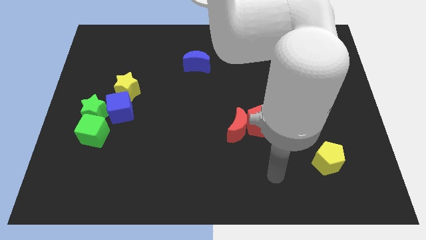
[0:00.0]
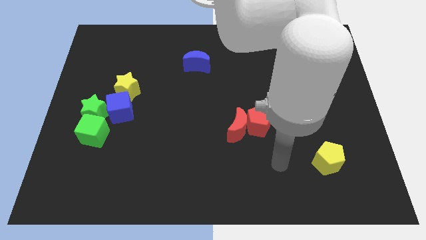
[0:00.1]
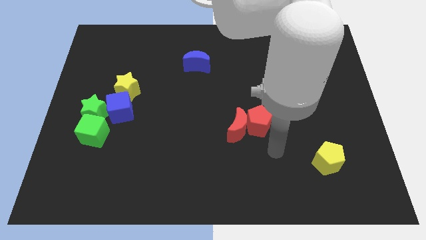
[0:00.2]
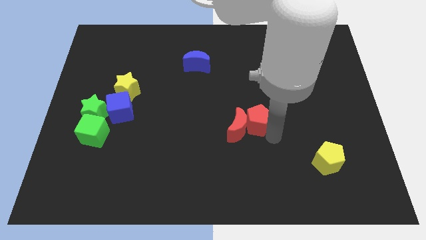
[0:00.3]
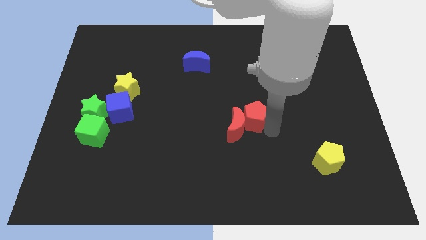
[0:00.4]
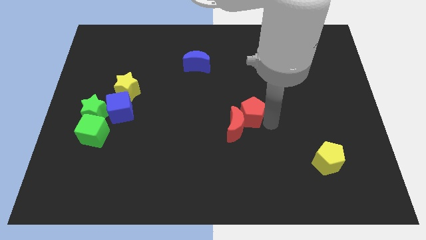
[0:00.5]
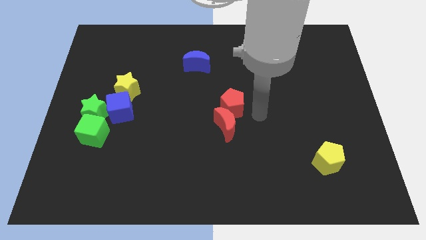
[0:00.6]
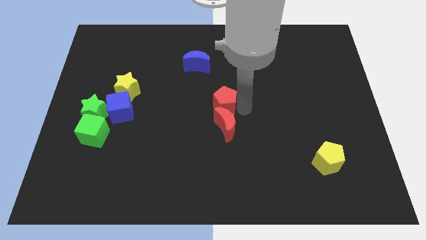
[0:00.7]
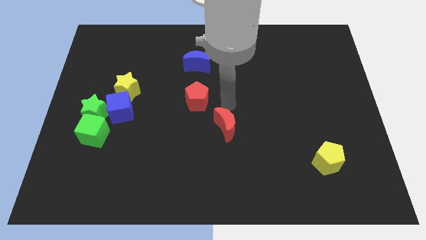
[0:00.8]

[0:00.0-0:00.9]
move the red moon away from the red pentagon

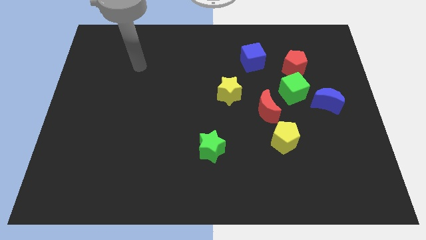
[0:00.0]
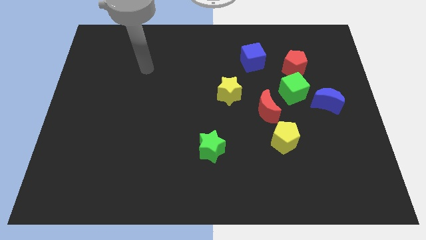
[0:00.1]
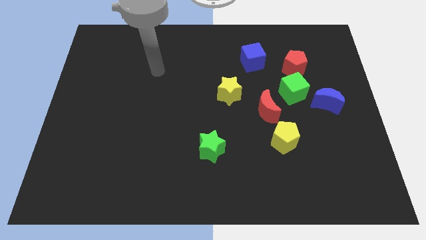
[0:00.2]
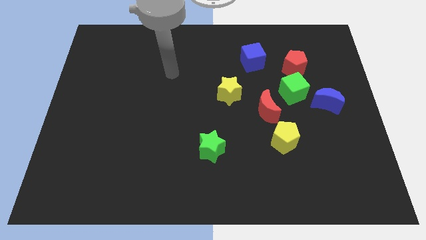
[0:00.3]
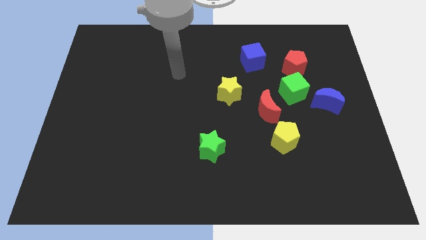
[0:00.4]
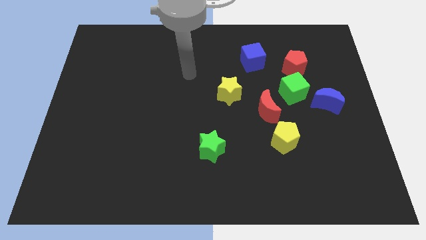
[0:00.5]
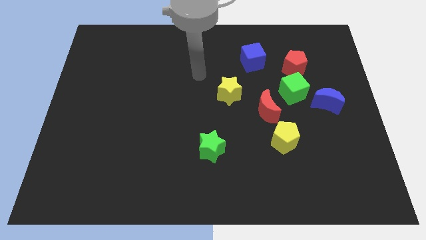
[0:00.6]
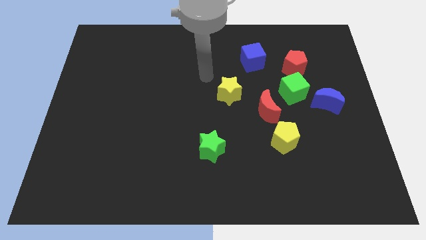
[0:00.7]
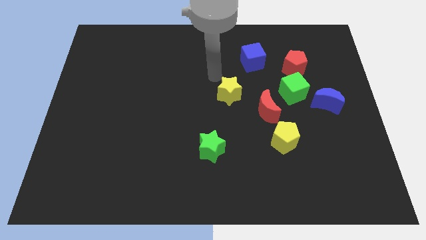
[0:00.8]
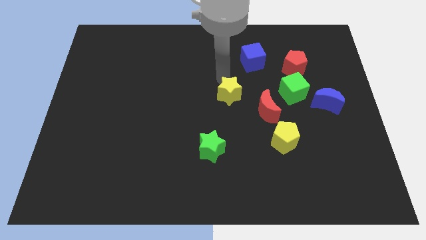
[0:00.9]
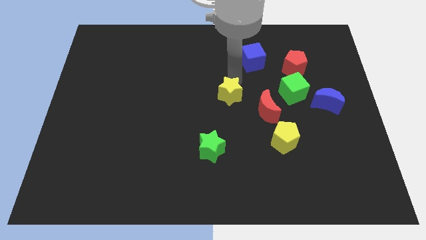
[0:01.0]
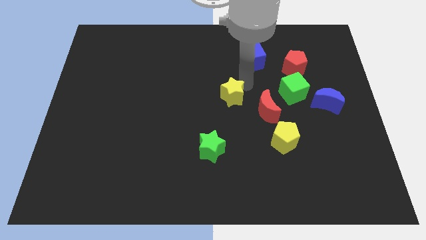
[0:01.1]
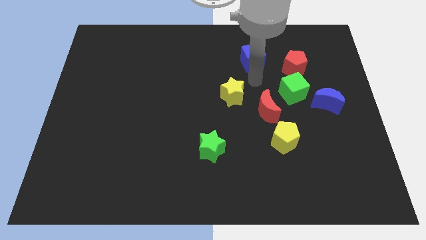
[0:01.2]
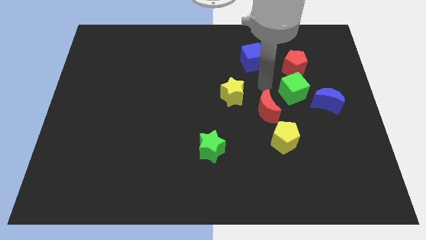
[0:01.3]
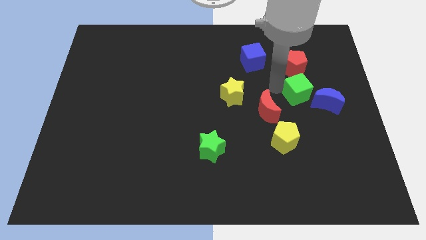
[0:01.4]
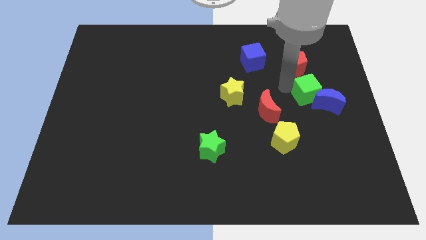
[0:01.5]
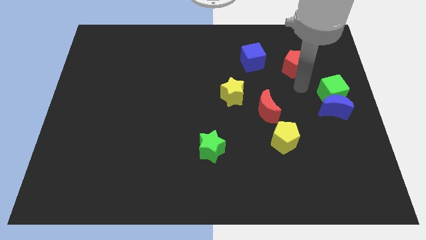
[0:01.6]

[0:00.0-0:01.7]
move the red pentagon away from the green cube

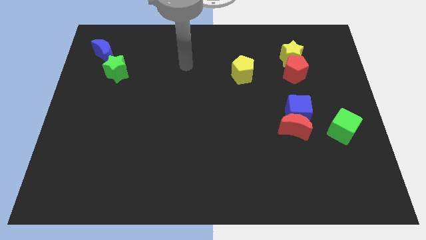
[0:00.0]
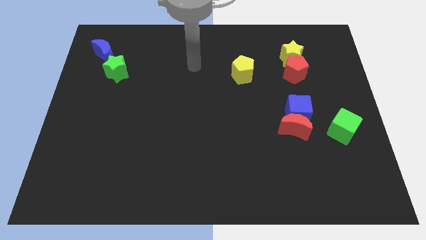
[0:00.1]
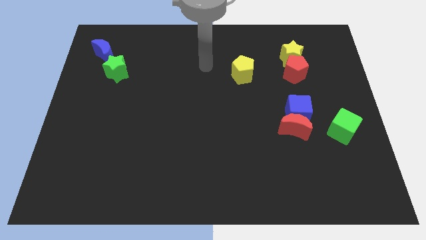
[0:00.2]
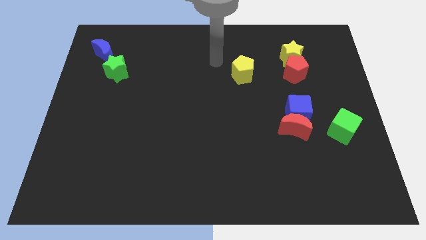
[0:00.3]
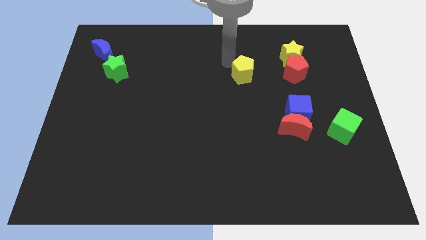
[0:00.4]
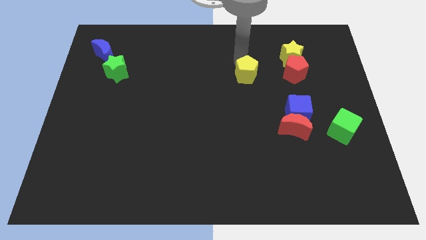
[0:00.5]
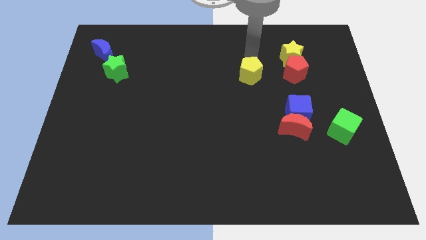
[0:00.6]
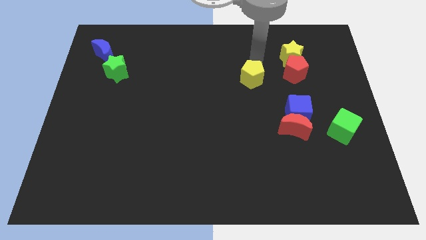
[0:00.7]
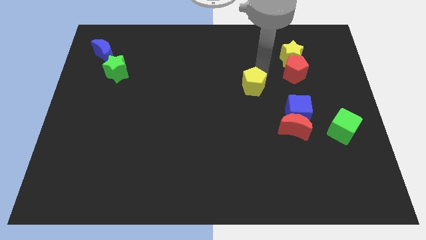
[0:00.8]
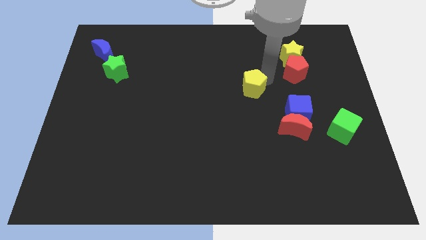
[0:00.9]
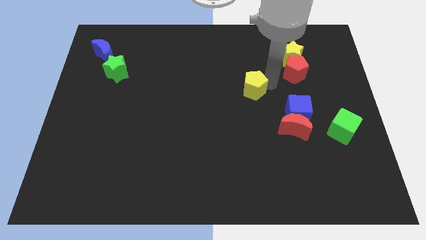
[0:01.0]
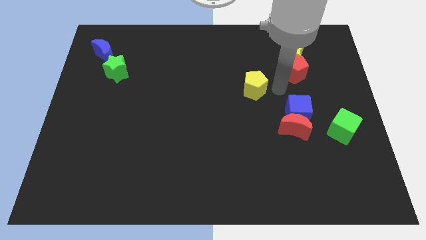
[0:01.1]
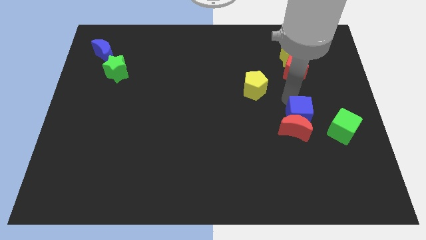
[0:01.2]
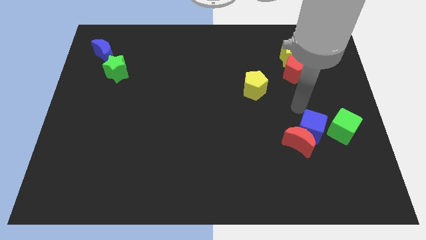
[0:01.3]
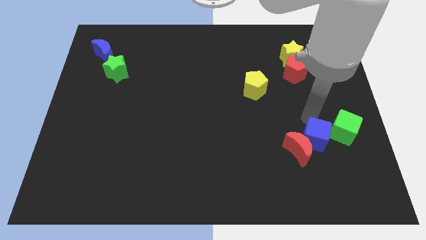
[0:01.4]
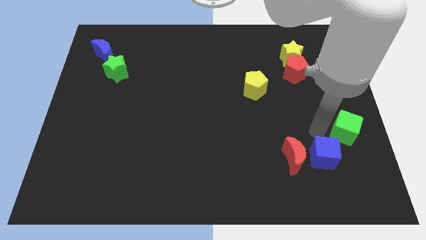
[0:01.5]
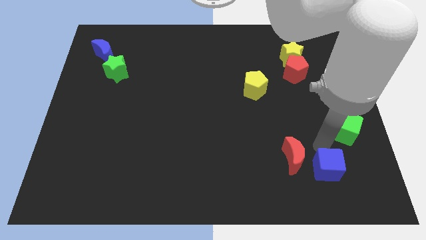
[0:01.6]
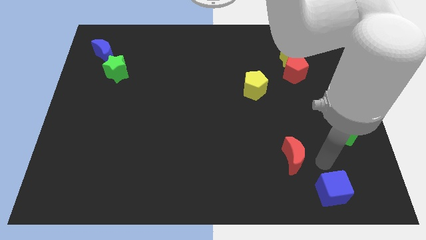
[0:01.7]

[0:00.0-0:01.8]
separate the red moon from the blue cube

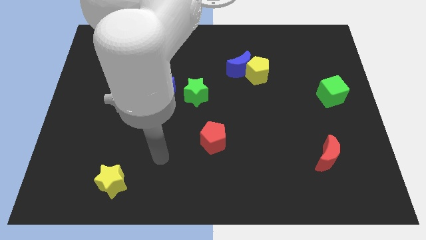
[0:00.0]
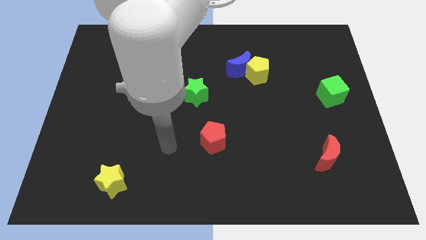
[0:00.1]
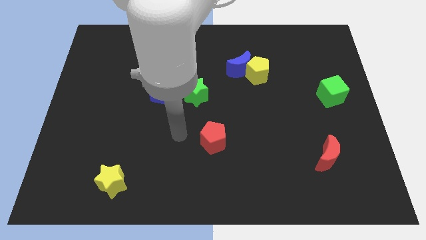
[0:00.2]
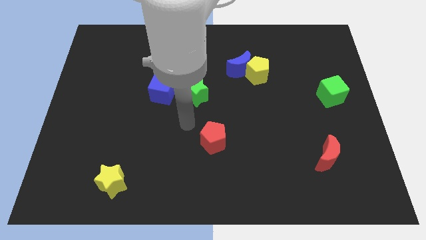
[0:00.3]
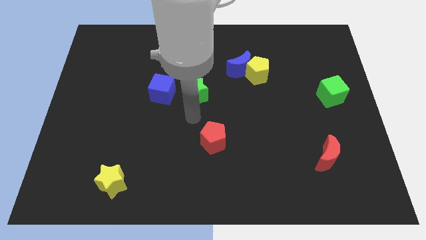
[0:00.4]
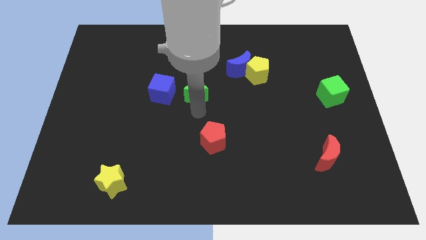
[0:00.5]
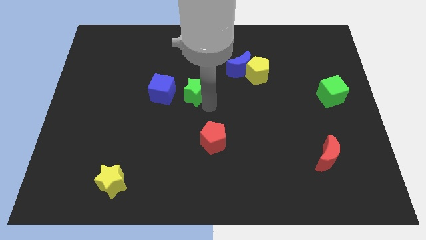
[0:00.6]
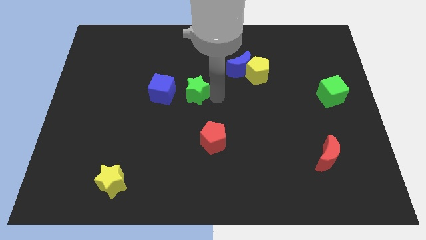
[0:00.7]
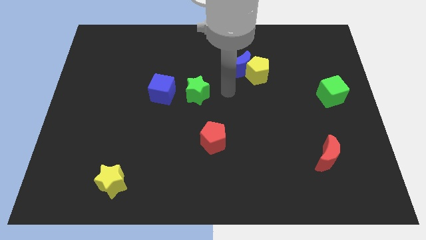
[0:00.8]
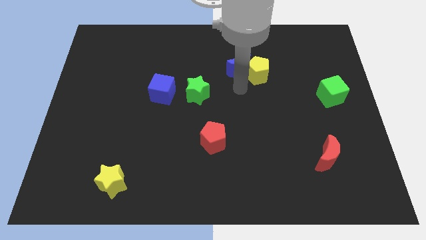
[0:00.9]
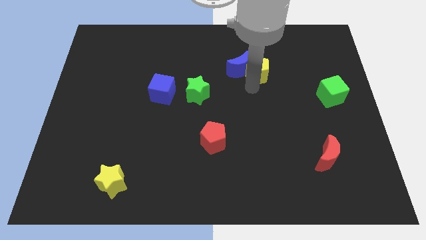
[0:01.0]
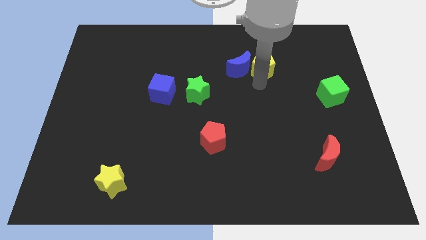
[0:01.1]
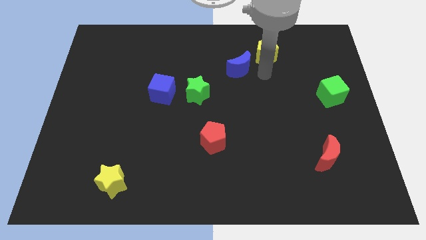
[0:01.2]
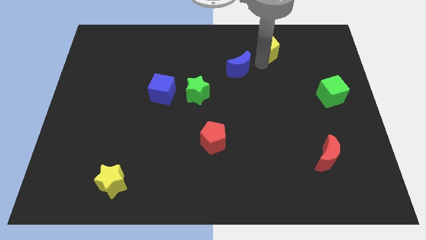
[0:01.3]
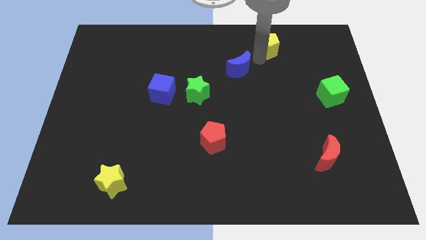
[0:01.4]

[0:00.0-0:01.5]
move the blue moon away from the yellow pentagon

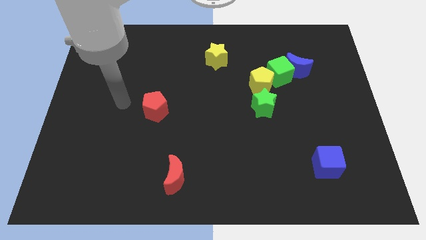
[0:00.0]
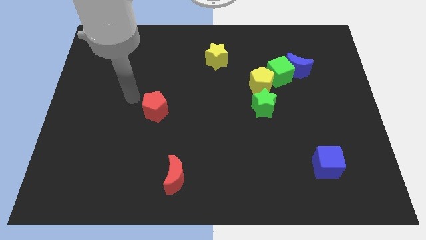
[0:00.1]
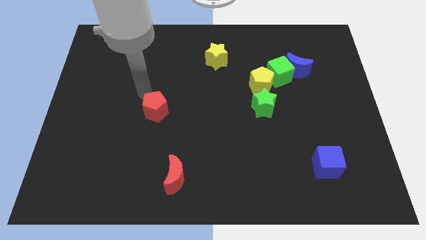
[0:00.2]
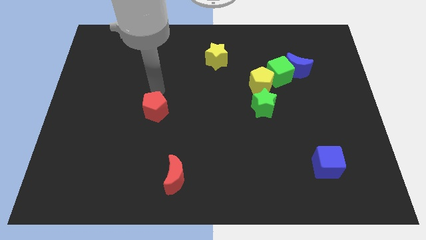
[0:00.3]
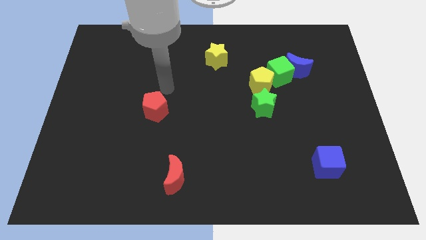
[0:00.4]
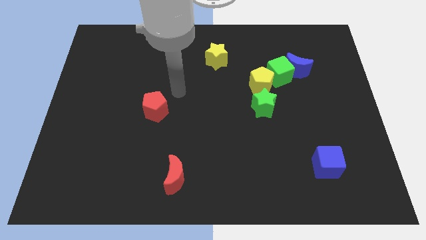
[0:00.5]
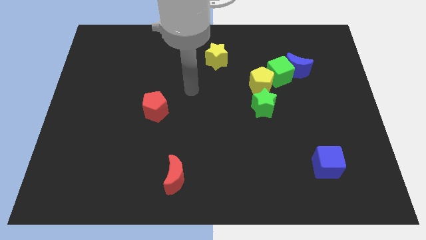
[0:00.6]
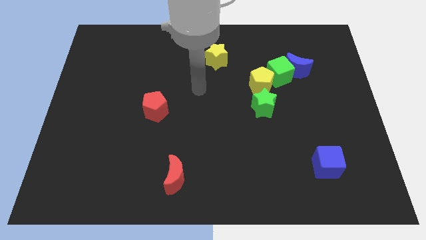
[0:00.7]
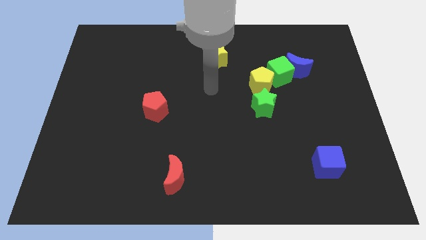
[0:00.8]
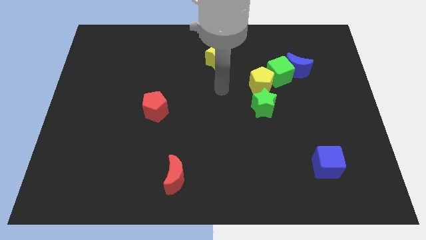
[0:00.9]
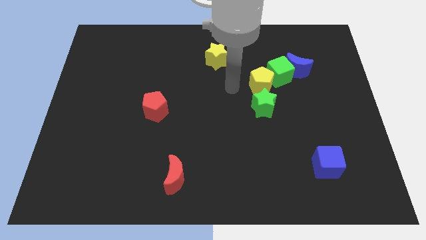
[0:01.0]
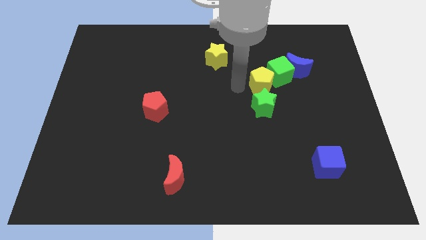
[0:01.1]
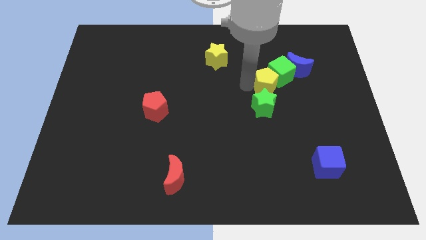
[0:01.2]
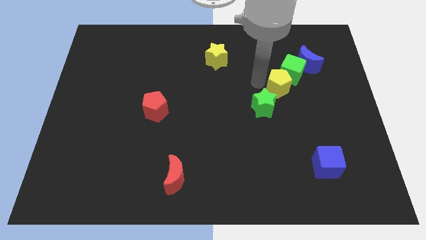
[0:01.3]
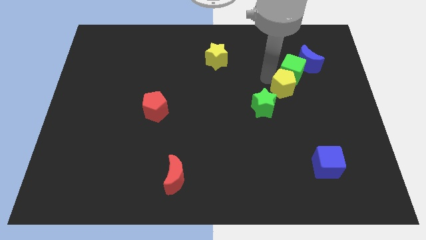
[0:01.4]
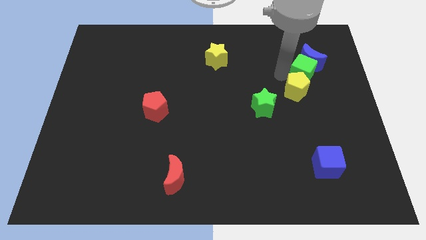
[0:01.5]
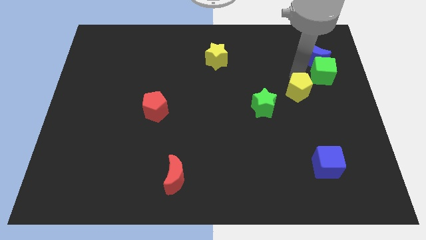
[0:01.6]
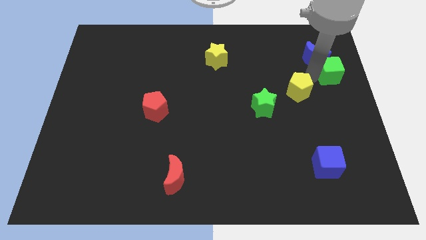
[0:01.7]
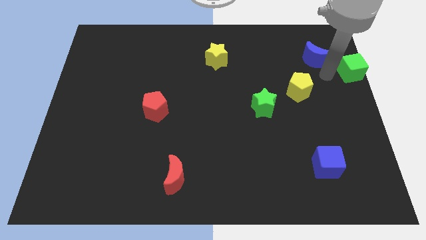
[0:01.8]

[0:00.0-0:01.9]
pull the blue moon apart from the green cube

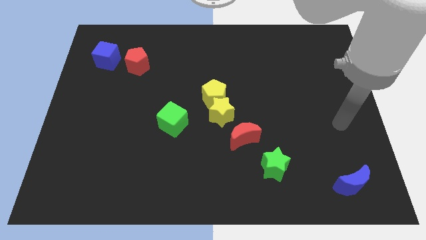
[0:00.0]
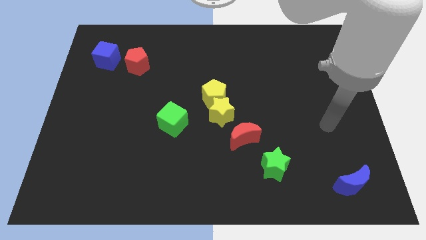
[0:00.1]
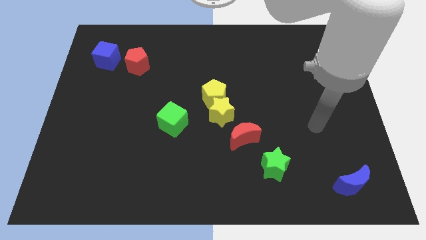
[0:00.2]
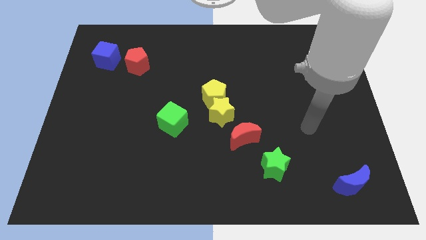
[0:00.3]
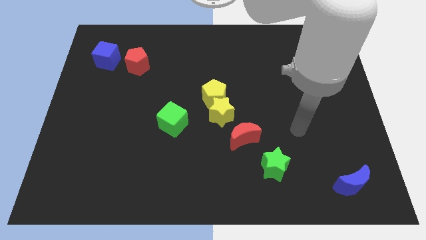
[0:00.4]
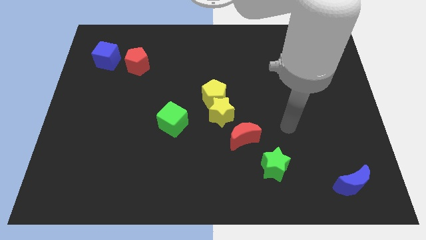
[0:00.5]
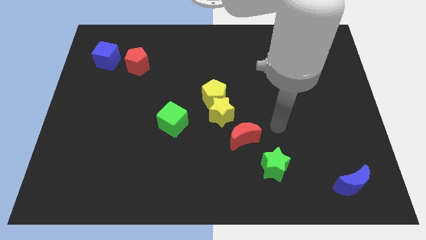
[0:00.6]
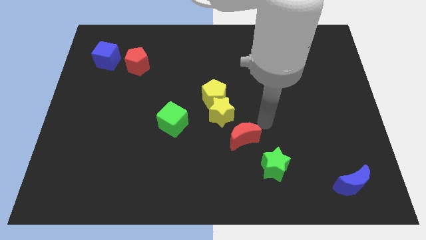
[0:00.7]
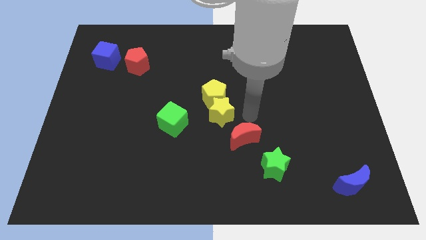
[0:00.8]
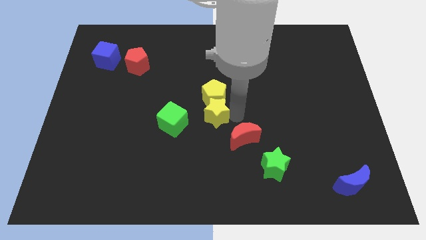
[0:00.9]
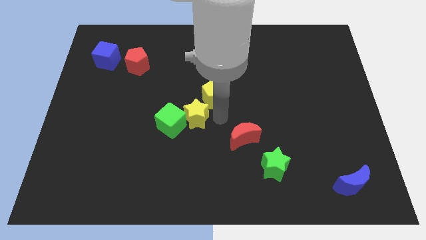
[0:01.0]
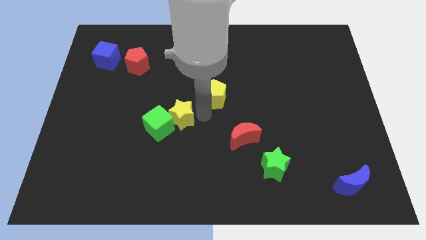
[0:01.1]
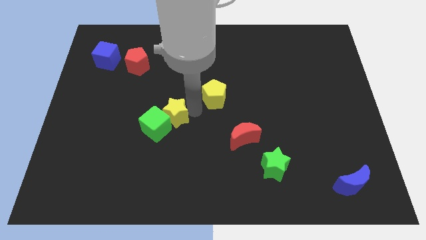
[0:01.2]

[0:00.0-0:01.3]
separate the yellow pentagon from the yellow star

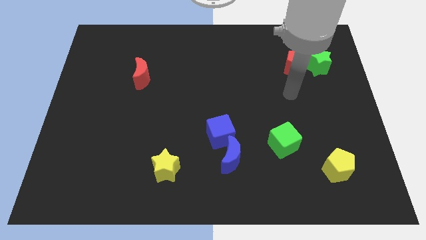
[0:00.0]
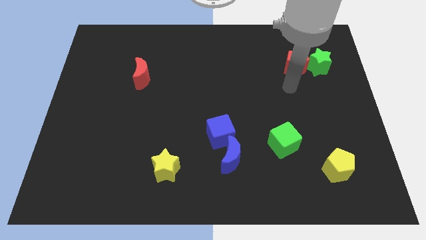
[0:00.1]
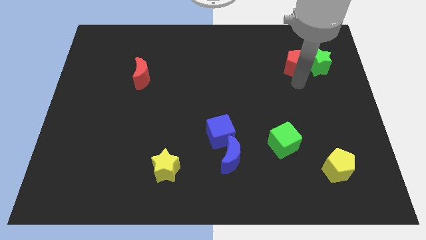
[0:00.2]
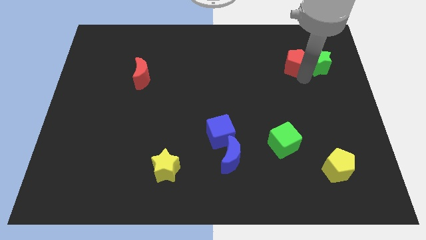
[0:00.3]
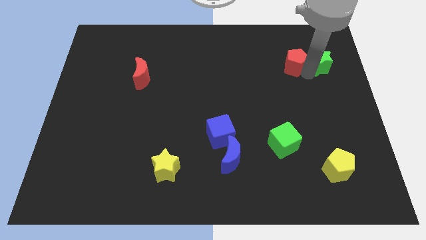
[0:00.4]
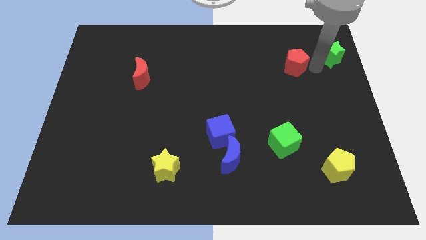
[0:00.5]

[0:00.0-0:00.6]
pull the red pentagon apart from the green star
